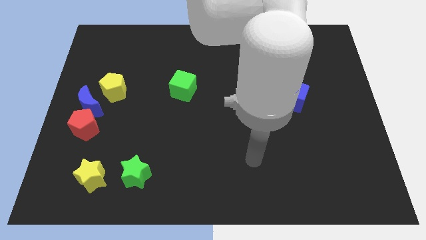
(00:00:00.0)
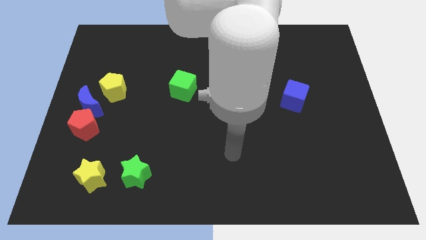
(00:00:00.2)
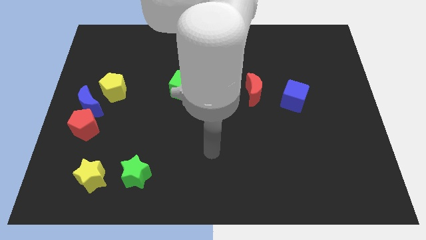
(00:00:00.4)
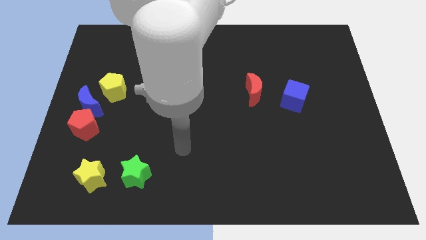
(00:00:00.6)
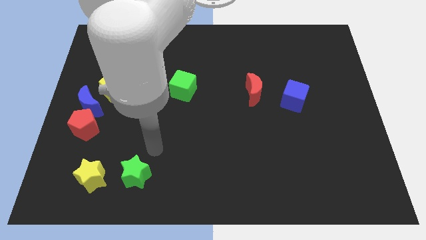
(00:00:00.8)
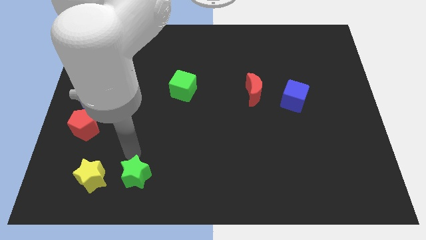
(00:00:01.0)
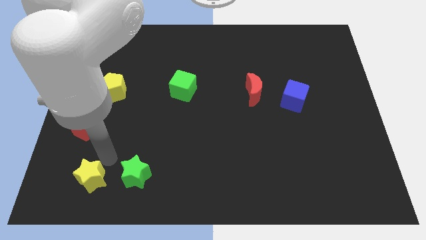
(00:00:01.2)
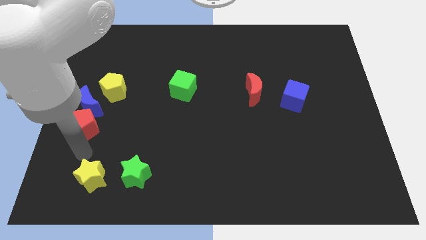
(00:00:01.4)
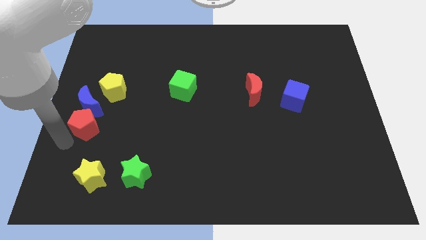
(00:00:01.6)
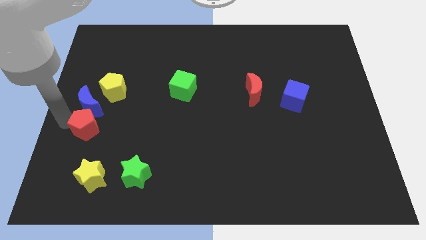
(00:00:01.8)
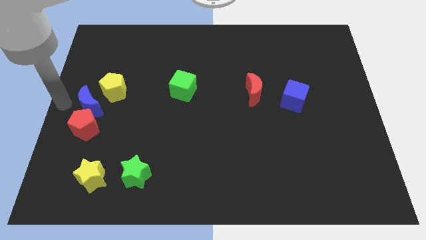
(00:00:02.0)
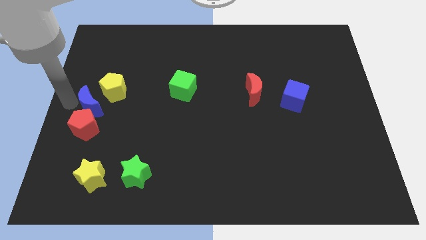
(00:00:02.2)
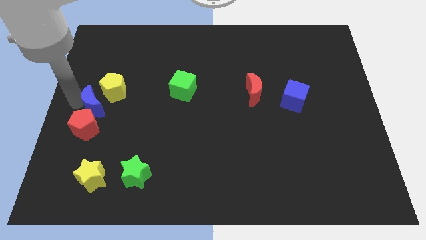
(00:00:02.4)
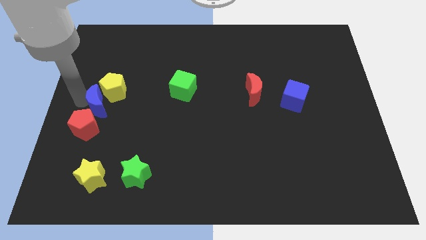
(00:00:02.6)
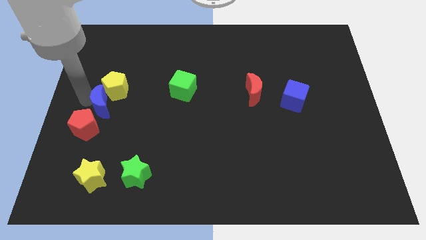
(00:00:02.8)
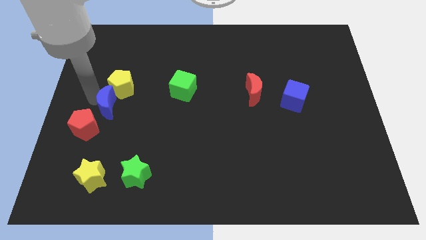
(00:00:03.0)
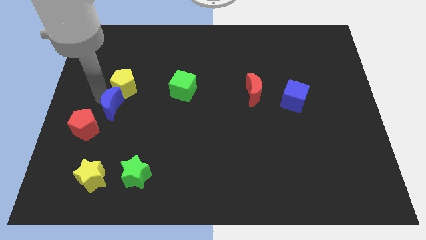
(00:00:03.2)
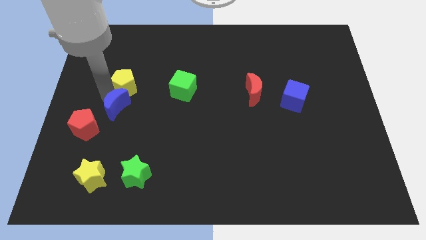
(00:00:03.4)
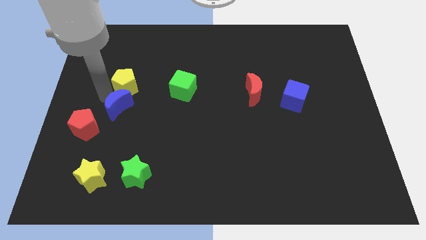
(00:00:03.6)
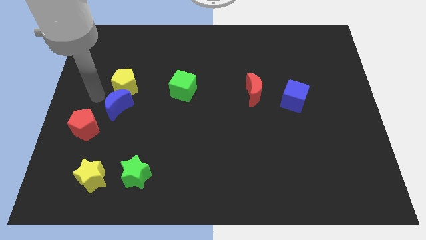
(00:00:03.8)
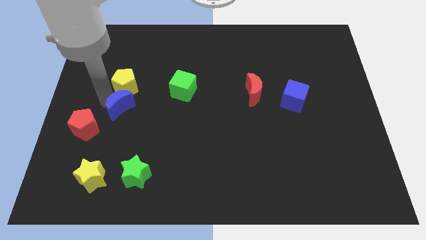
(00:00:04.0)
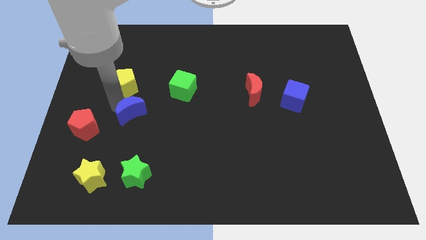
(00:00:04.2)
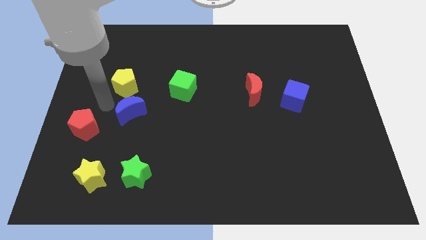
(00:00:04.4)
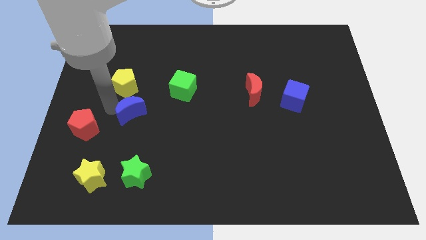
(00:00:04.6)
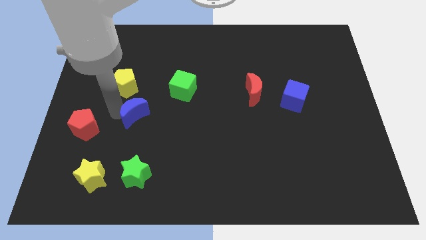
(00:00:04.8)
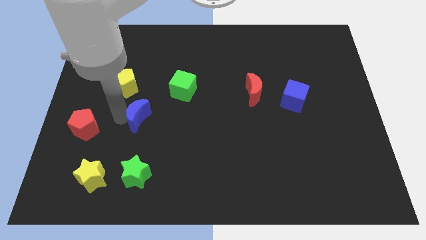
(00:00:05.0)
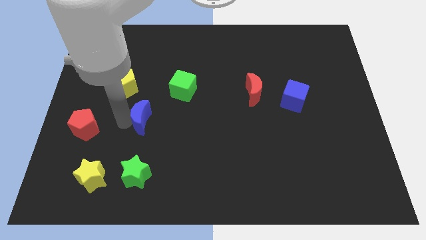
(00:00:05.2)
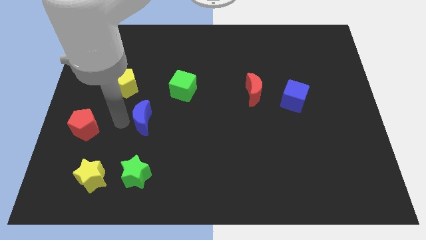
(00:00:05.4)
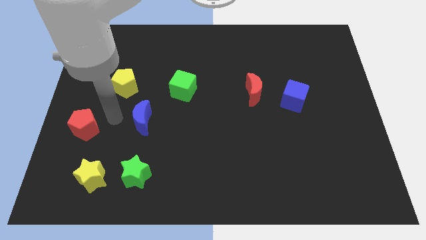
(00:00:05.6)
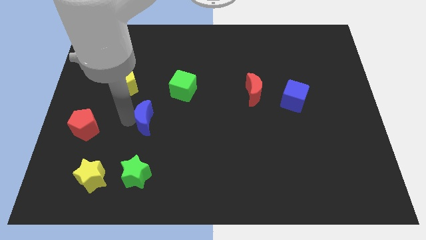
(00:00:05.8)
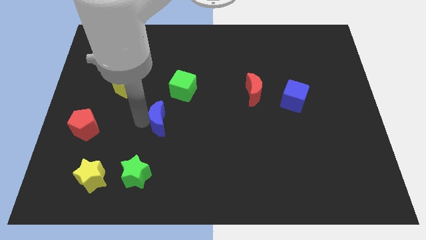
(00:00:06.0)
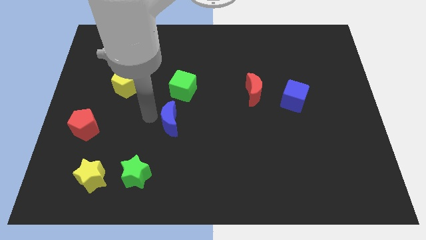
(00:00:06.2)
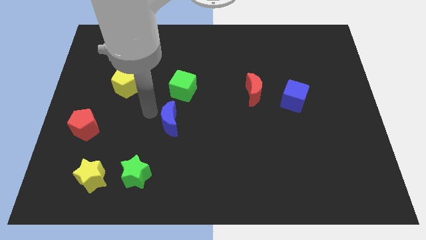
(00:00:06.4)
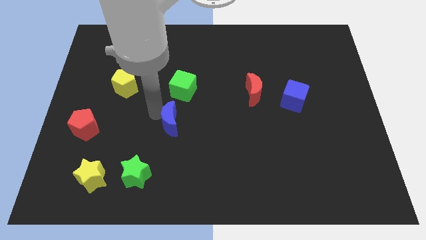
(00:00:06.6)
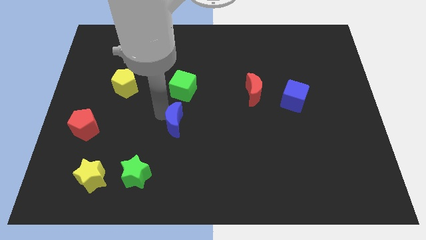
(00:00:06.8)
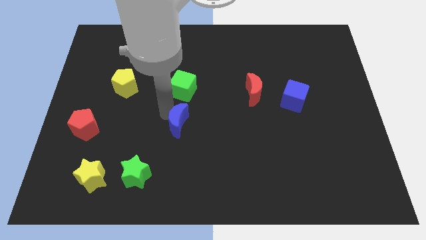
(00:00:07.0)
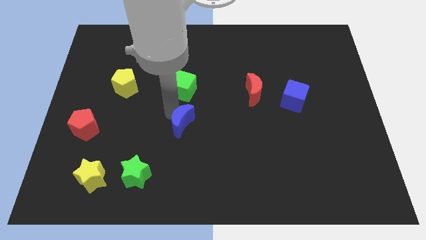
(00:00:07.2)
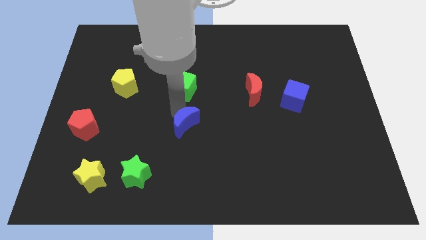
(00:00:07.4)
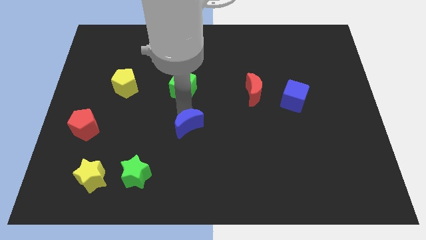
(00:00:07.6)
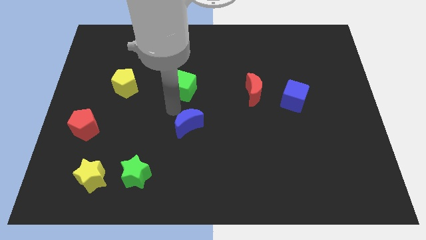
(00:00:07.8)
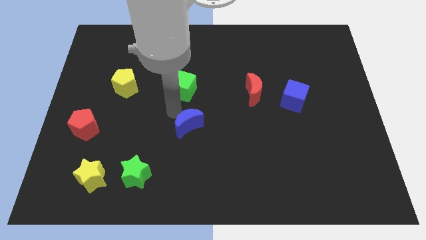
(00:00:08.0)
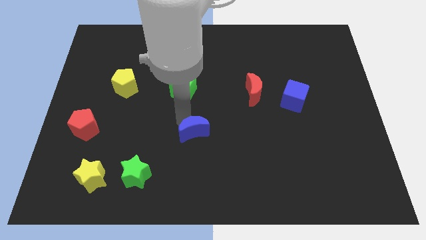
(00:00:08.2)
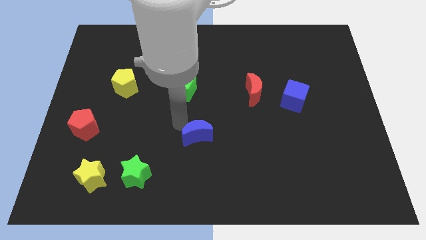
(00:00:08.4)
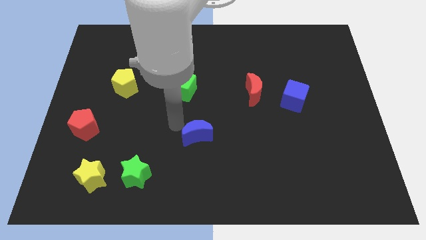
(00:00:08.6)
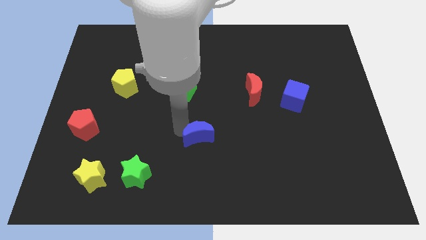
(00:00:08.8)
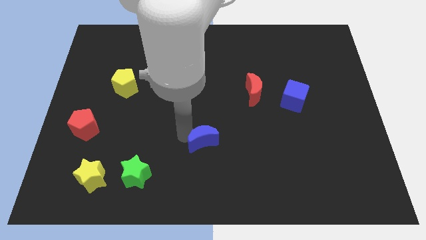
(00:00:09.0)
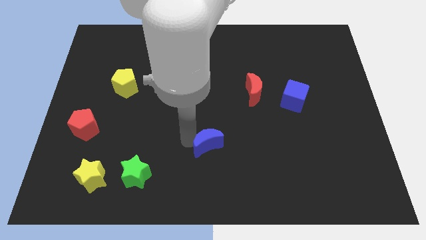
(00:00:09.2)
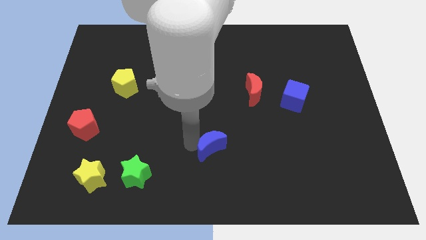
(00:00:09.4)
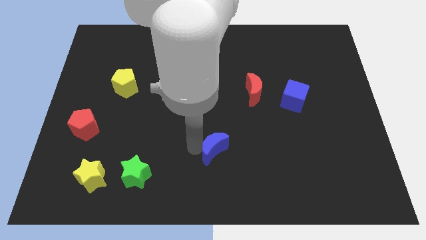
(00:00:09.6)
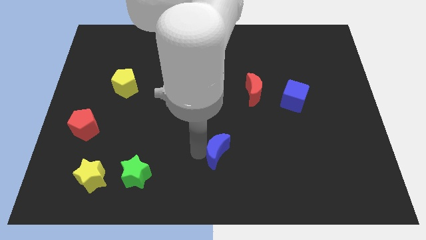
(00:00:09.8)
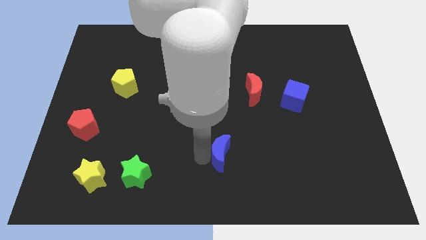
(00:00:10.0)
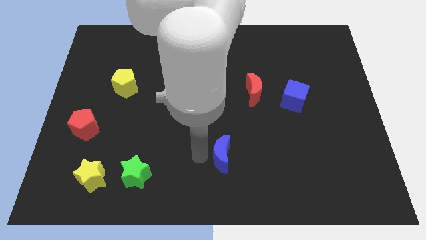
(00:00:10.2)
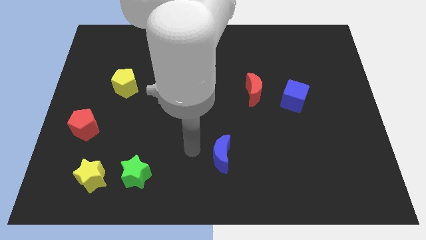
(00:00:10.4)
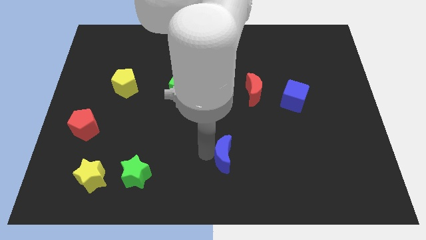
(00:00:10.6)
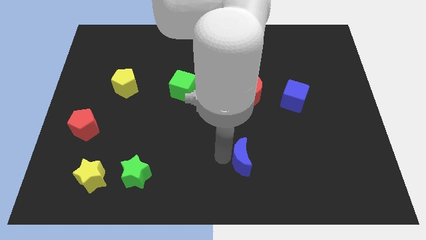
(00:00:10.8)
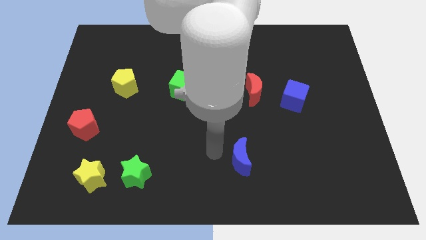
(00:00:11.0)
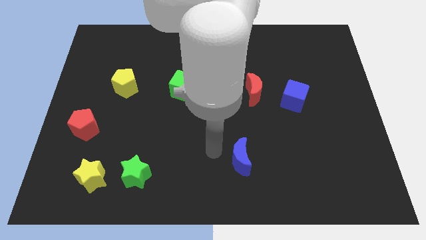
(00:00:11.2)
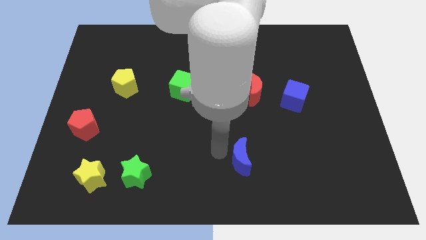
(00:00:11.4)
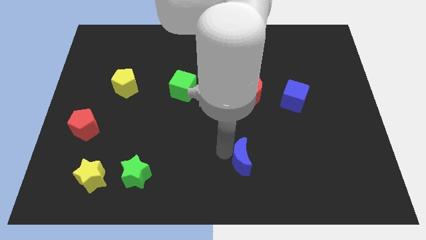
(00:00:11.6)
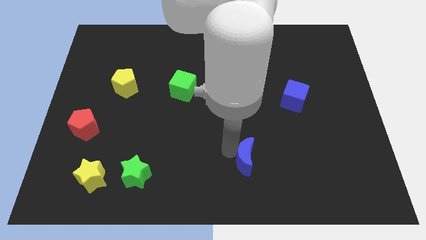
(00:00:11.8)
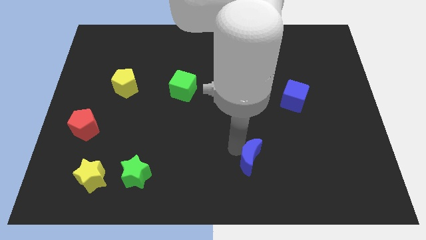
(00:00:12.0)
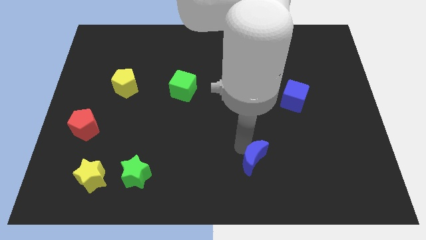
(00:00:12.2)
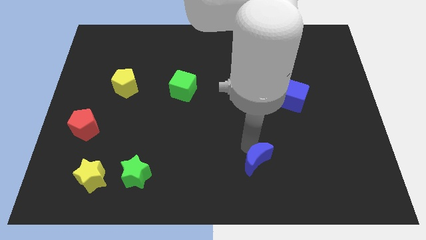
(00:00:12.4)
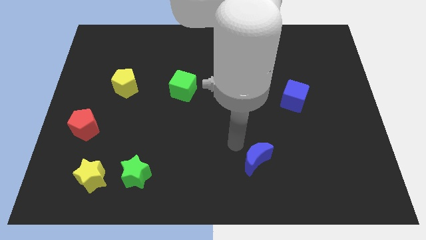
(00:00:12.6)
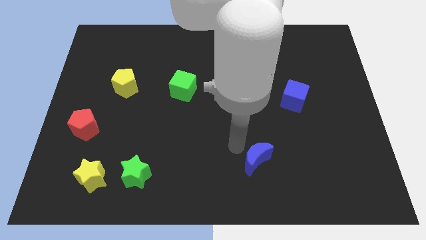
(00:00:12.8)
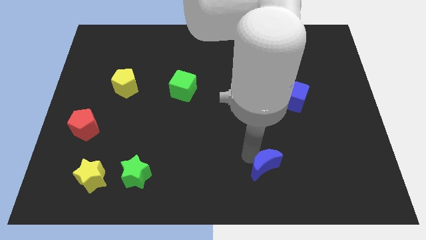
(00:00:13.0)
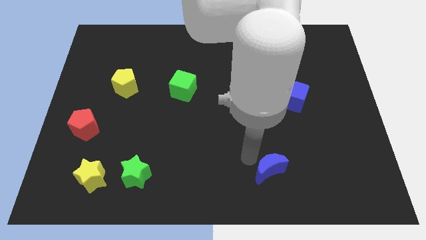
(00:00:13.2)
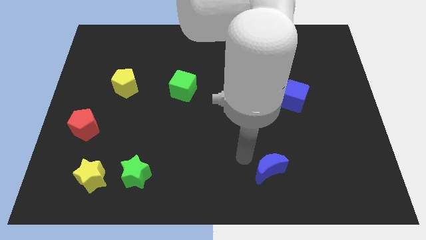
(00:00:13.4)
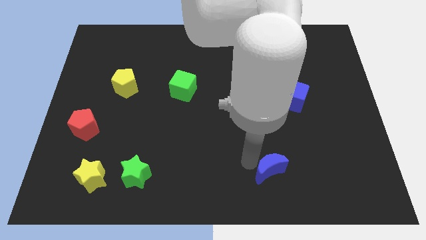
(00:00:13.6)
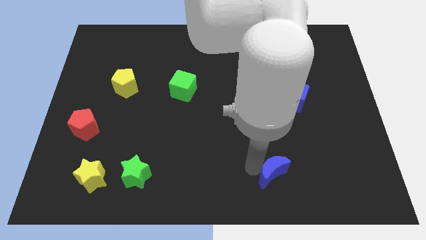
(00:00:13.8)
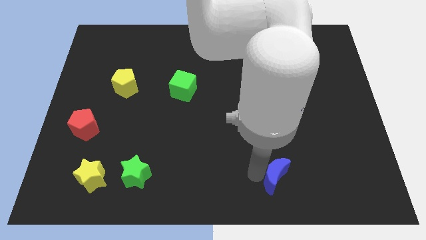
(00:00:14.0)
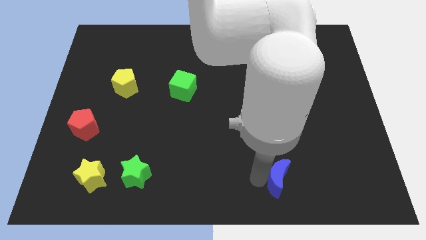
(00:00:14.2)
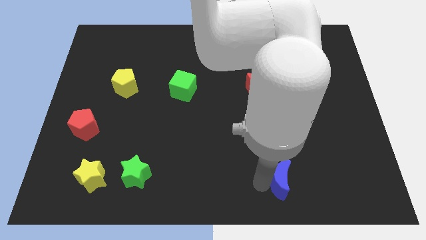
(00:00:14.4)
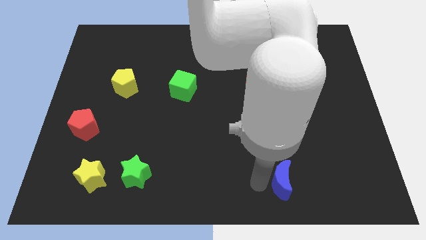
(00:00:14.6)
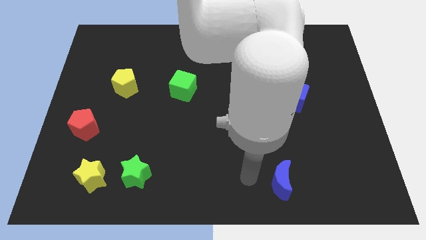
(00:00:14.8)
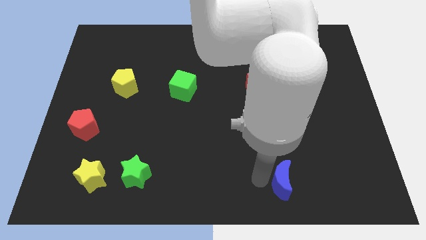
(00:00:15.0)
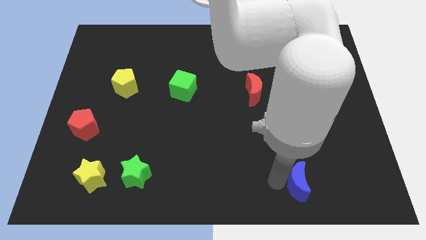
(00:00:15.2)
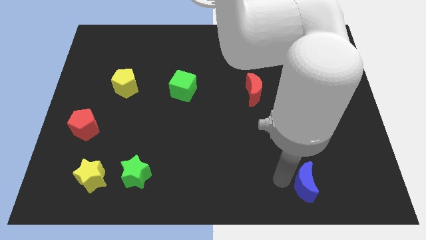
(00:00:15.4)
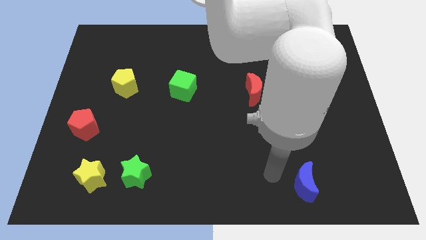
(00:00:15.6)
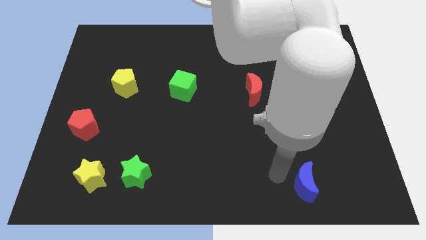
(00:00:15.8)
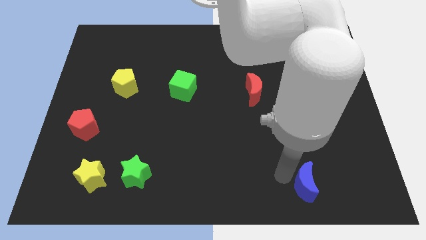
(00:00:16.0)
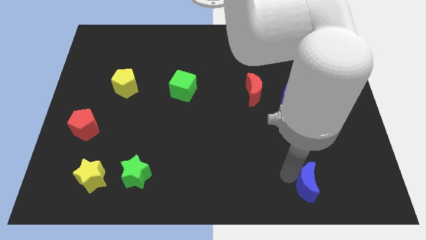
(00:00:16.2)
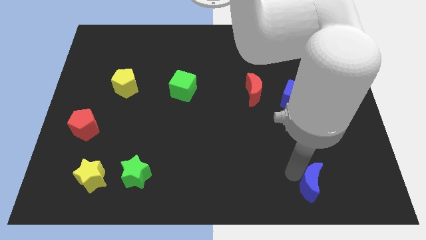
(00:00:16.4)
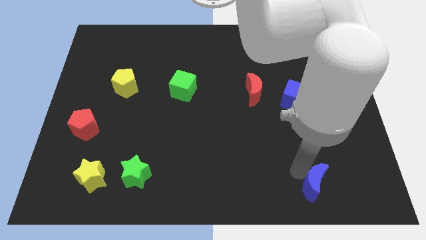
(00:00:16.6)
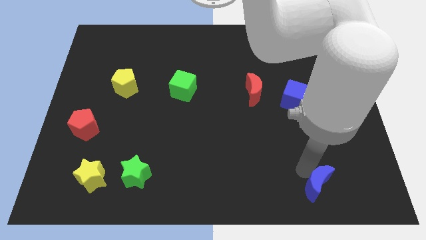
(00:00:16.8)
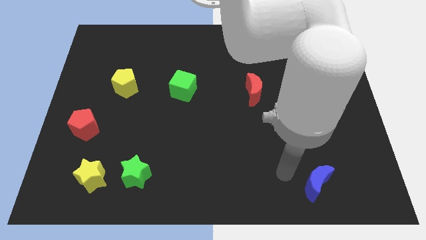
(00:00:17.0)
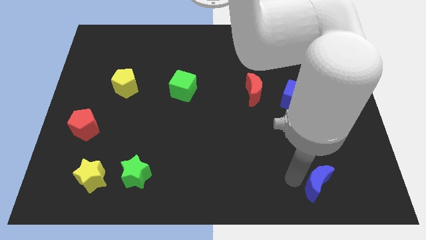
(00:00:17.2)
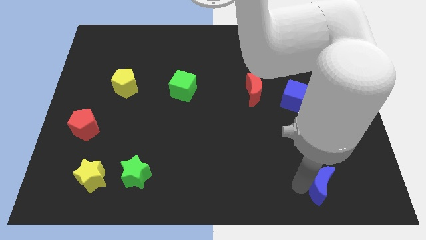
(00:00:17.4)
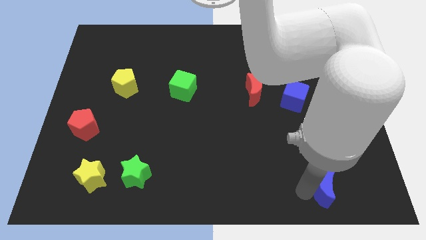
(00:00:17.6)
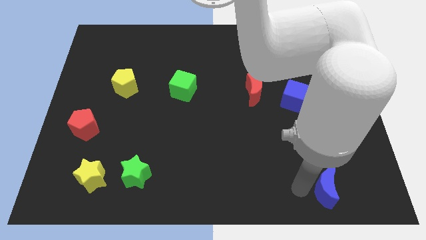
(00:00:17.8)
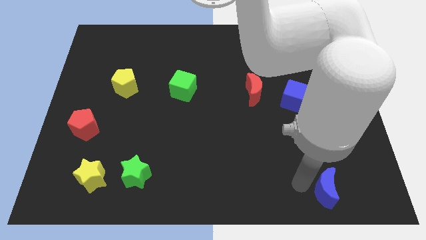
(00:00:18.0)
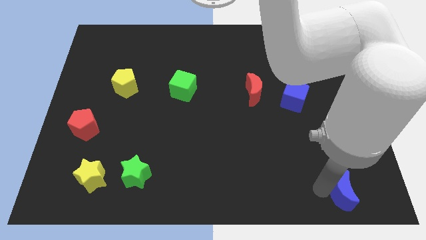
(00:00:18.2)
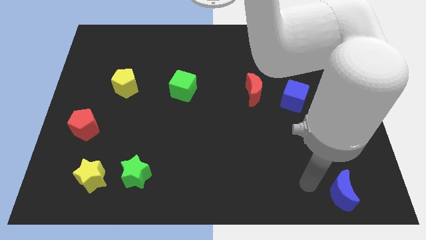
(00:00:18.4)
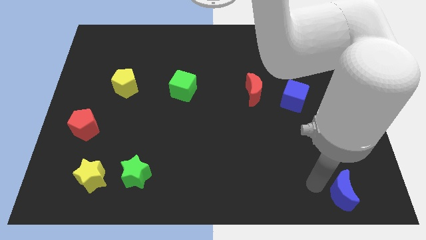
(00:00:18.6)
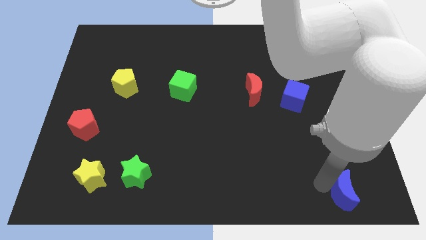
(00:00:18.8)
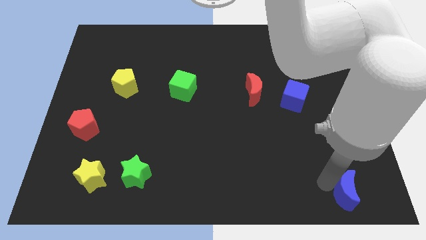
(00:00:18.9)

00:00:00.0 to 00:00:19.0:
slide the blue moon to the lower right corner
